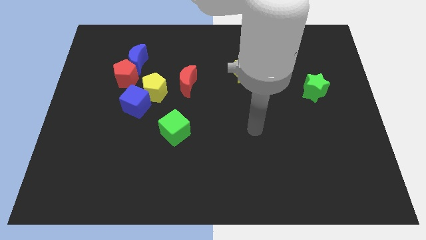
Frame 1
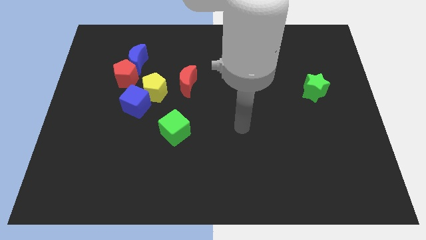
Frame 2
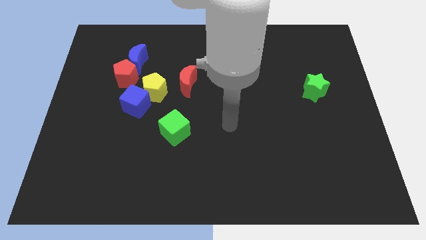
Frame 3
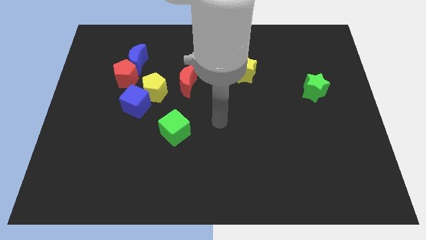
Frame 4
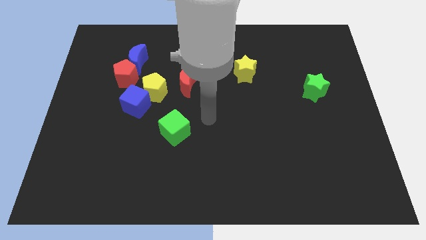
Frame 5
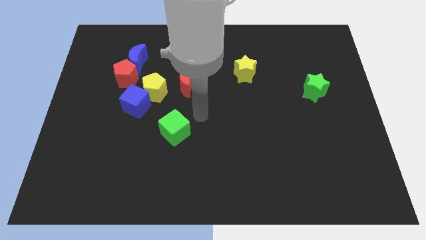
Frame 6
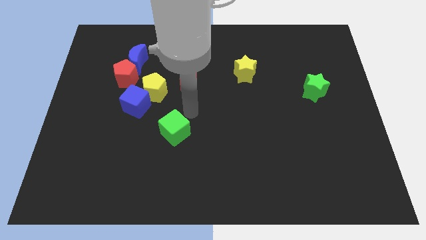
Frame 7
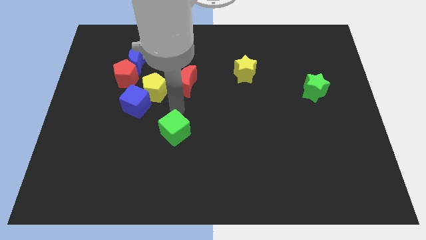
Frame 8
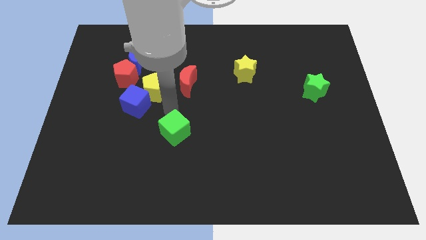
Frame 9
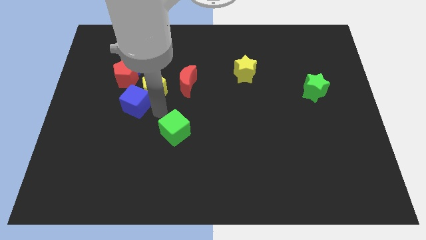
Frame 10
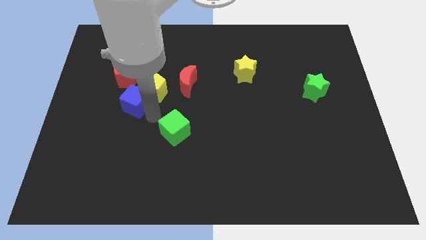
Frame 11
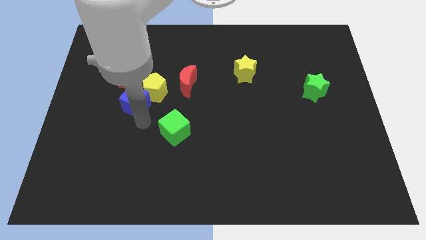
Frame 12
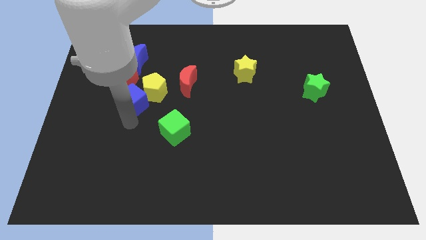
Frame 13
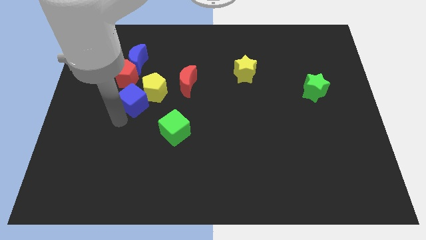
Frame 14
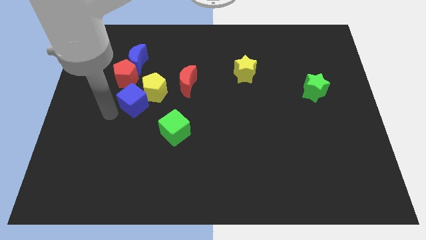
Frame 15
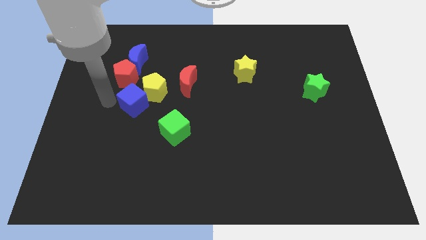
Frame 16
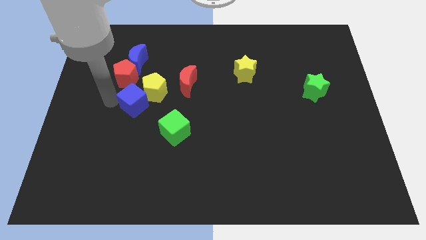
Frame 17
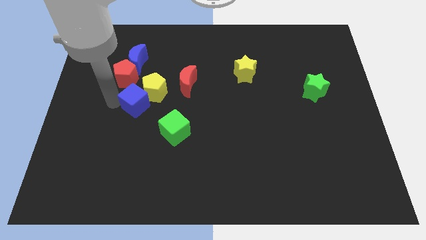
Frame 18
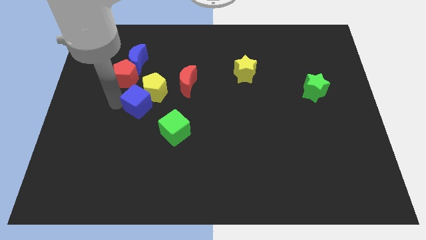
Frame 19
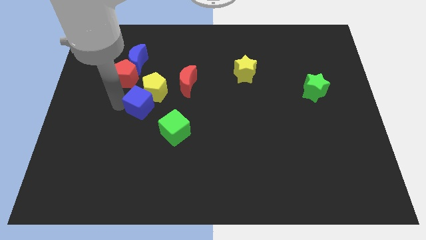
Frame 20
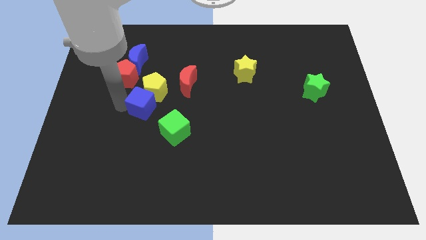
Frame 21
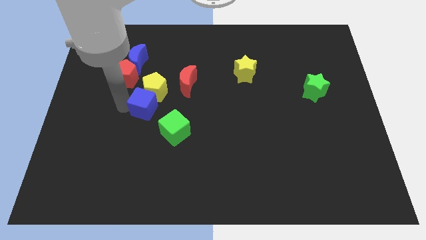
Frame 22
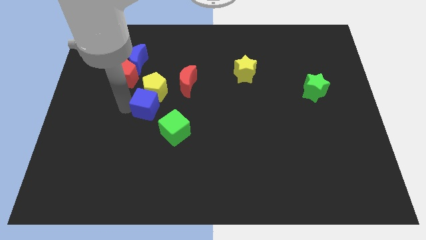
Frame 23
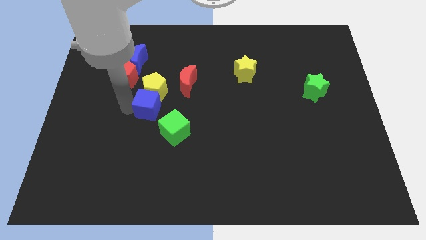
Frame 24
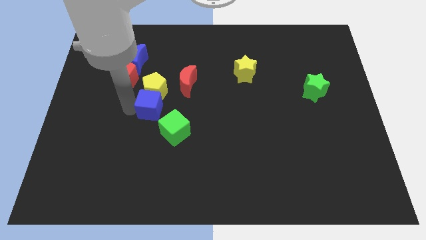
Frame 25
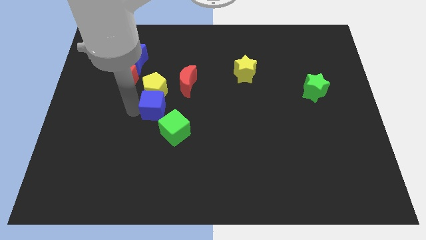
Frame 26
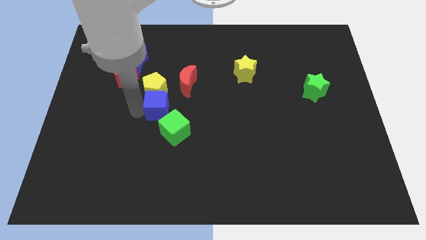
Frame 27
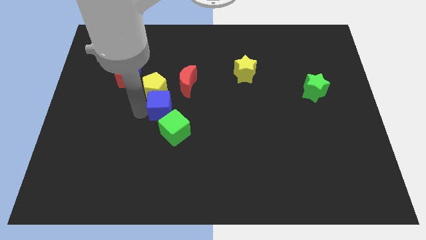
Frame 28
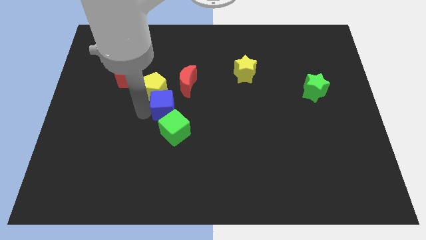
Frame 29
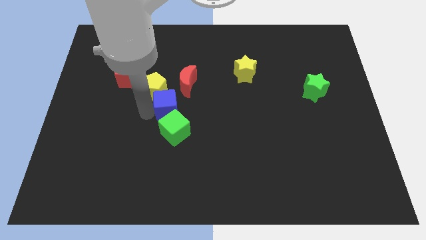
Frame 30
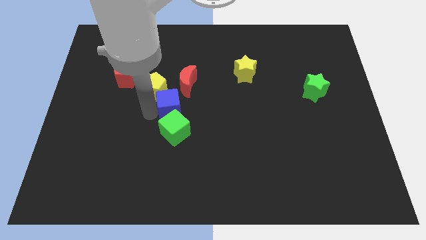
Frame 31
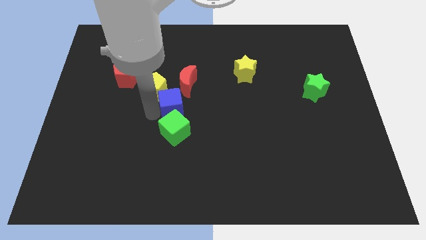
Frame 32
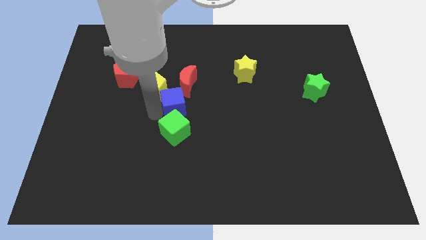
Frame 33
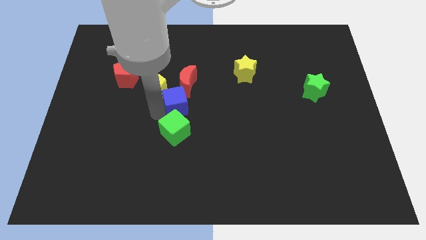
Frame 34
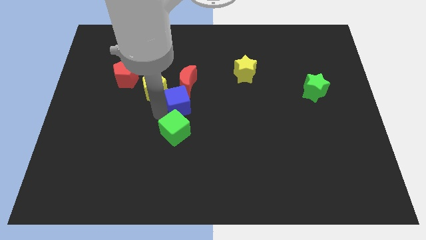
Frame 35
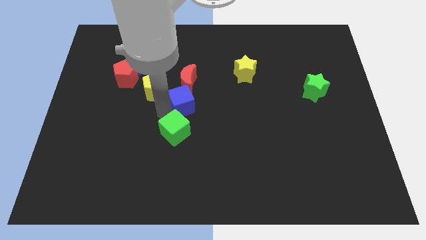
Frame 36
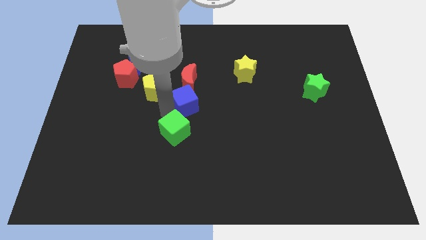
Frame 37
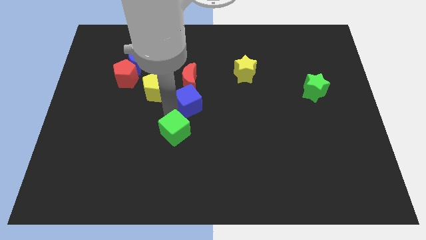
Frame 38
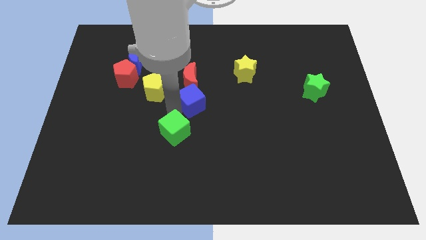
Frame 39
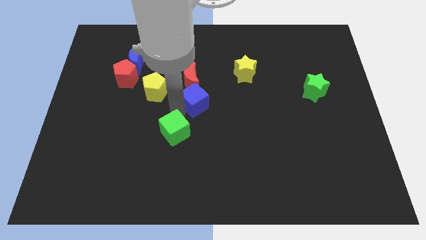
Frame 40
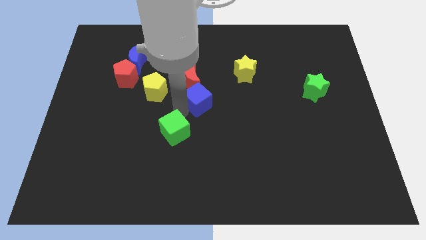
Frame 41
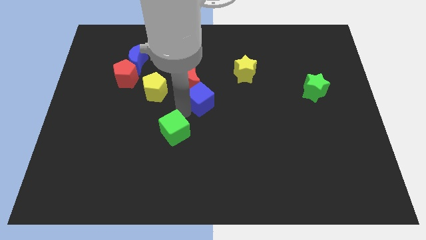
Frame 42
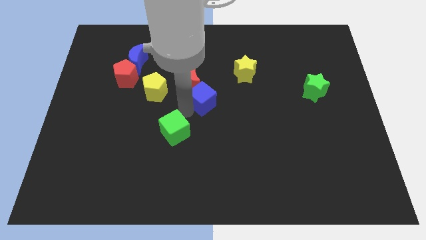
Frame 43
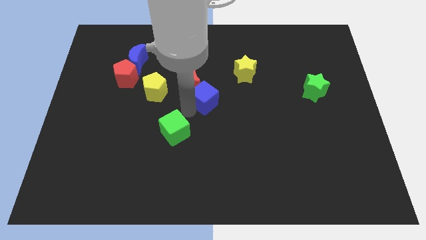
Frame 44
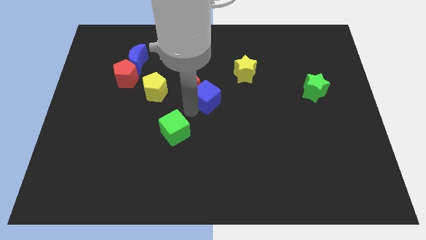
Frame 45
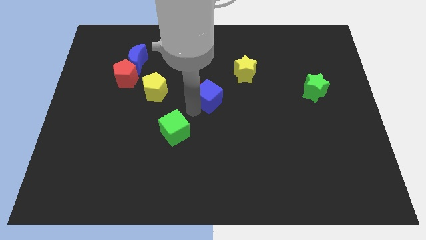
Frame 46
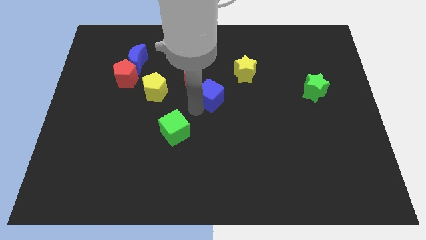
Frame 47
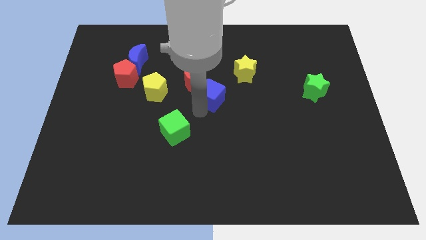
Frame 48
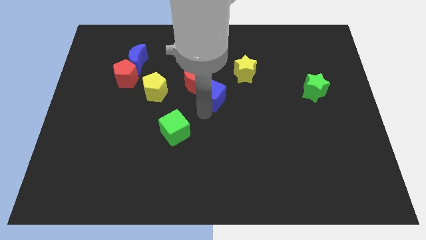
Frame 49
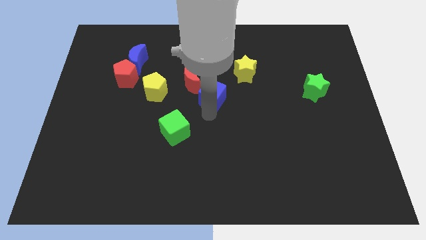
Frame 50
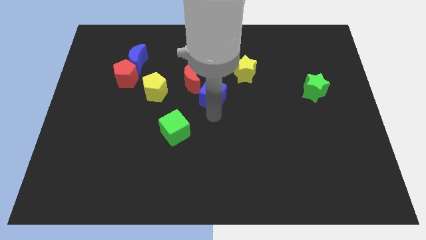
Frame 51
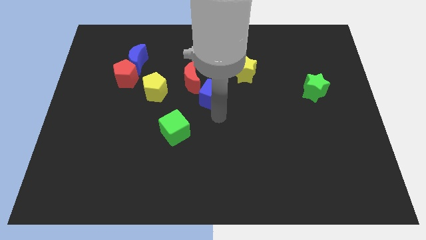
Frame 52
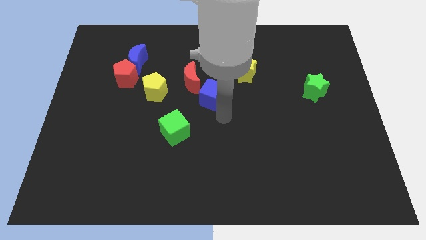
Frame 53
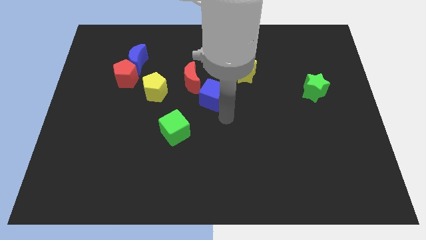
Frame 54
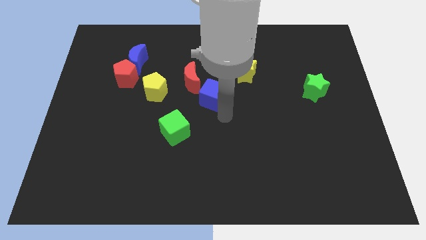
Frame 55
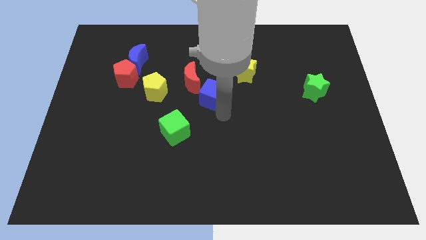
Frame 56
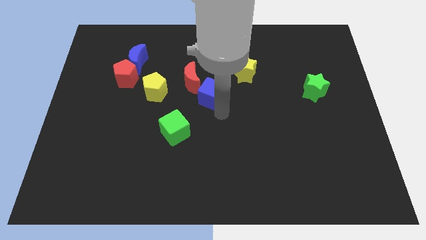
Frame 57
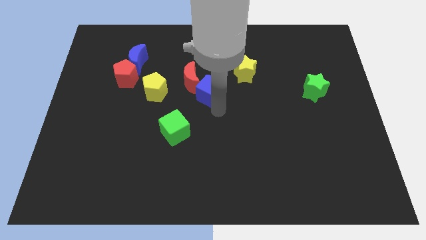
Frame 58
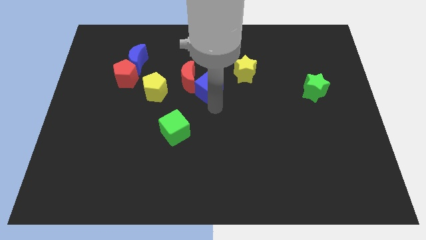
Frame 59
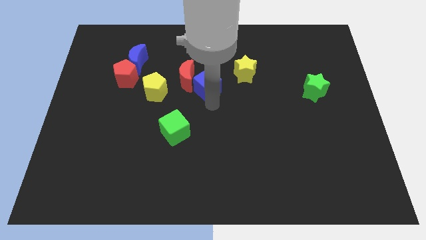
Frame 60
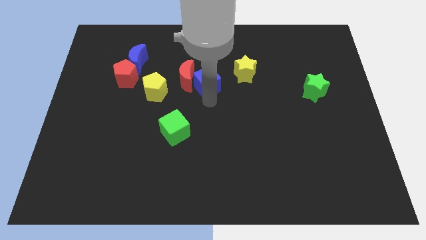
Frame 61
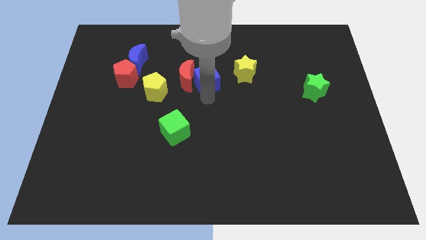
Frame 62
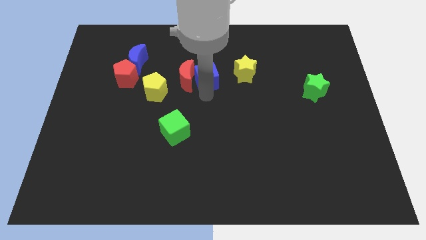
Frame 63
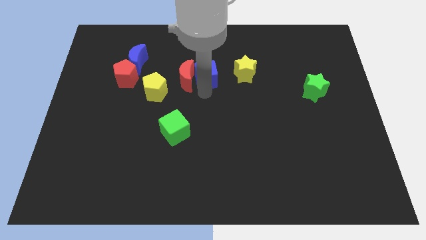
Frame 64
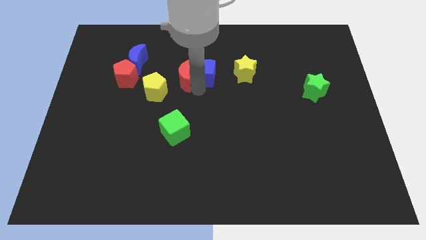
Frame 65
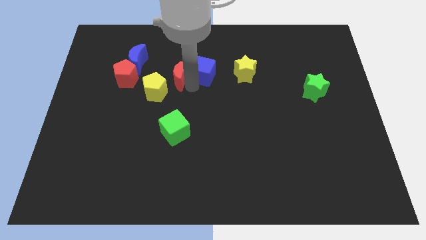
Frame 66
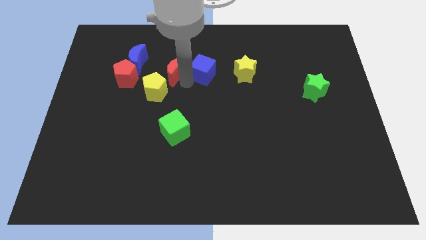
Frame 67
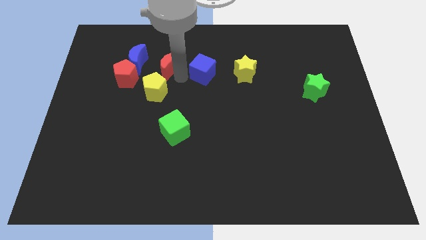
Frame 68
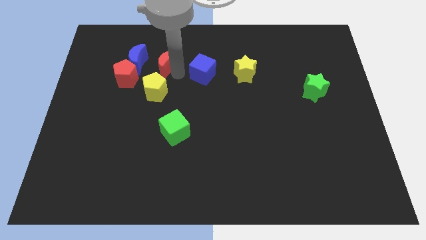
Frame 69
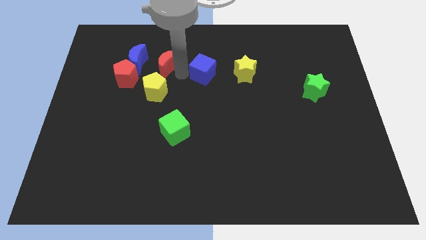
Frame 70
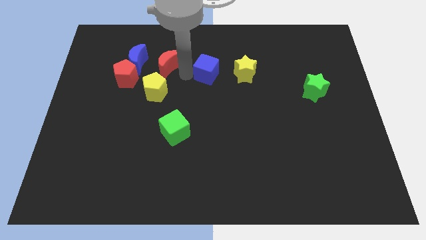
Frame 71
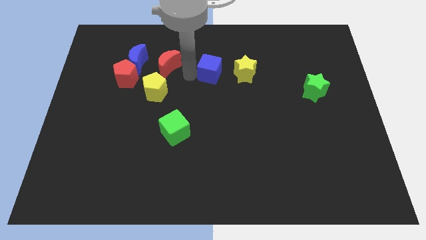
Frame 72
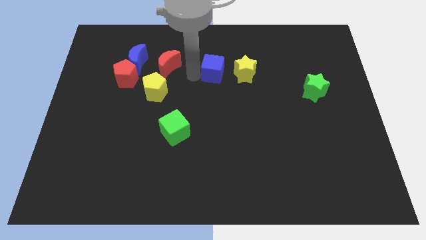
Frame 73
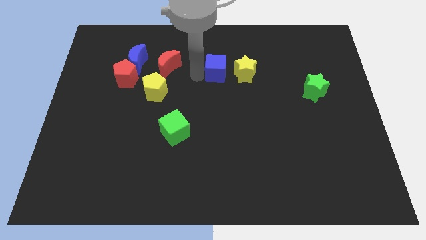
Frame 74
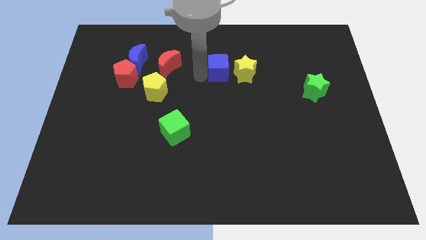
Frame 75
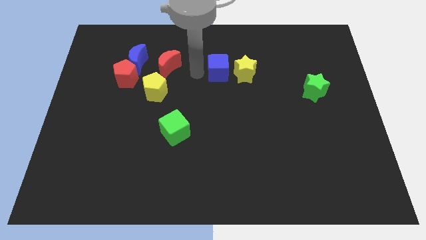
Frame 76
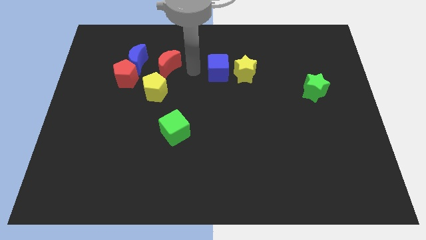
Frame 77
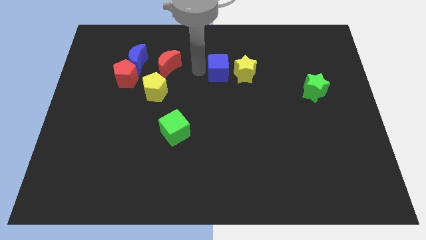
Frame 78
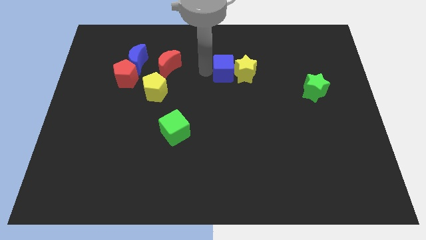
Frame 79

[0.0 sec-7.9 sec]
put the blue cube next to the yellow star
